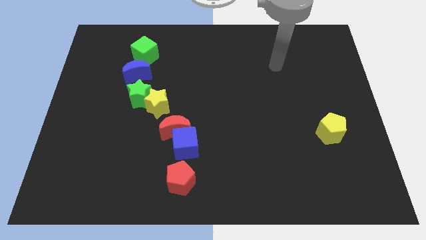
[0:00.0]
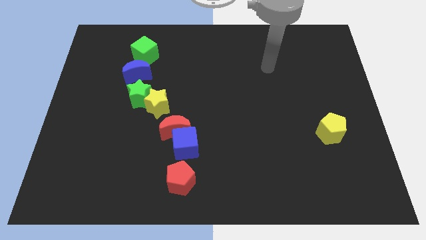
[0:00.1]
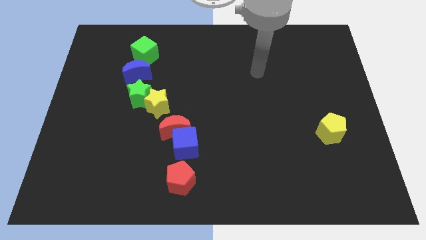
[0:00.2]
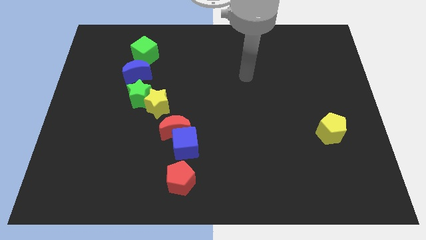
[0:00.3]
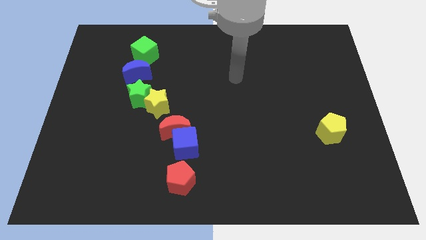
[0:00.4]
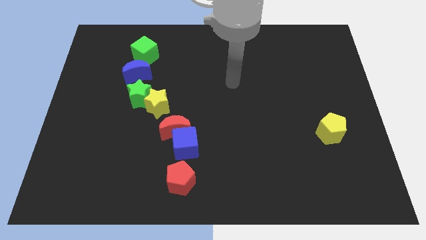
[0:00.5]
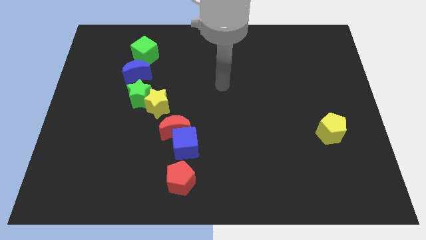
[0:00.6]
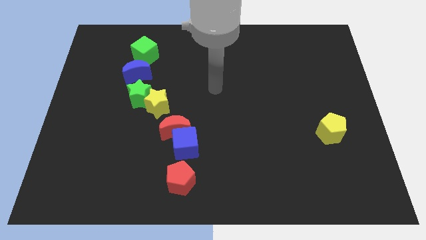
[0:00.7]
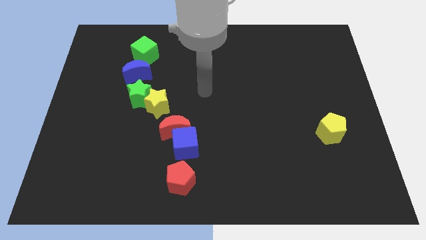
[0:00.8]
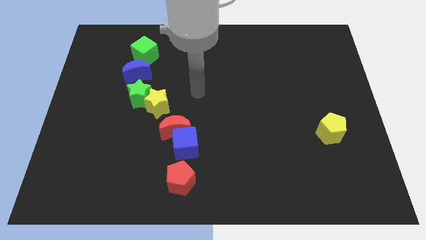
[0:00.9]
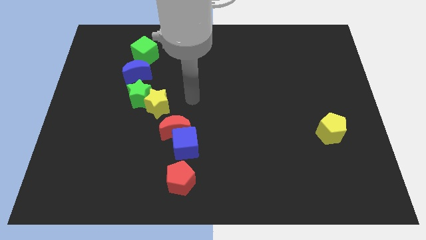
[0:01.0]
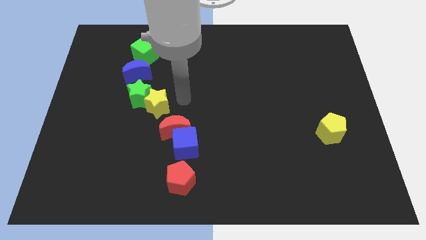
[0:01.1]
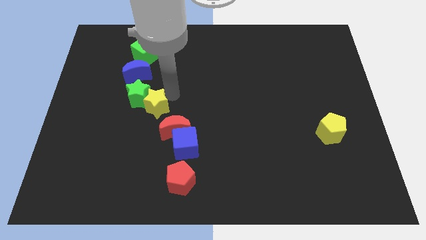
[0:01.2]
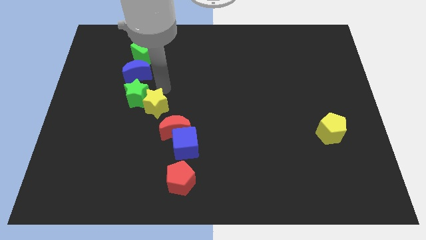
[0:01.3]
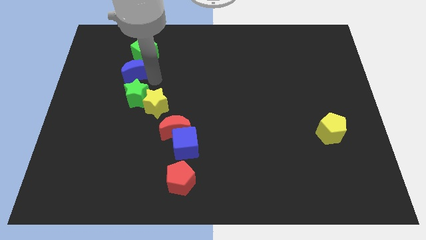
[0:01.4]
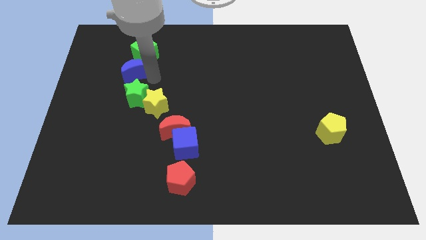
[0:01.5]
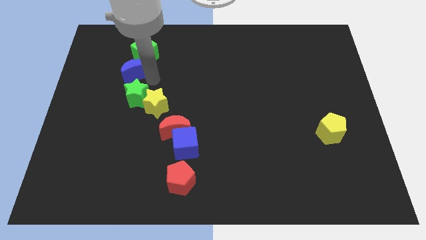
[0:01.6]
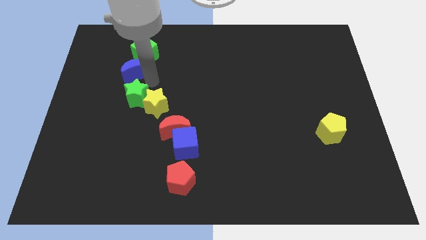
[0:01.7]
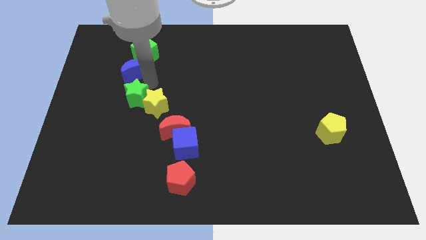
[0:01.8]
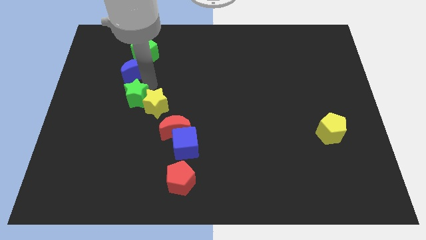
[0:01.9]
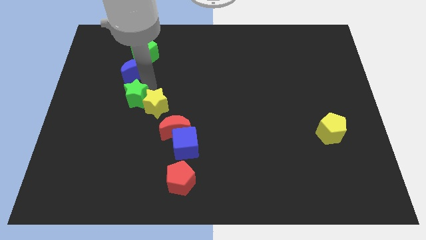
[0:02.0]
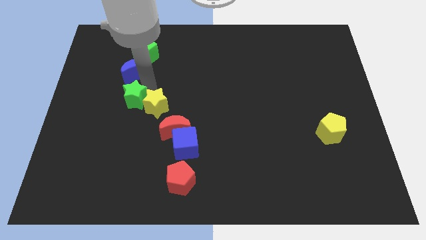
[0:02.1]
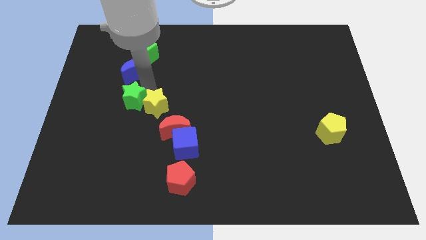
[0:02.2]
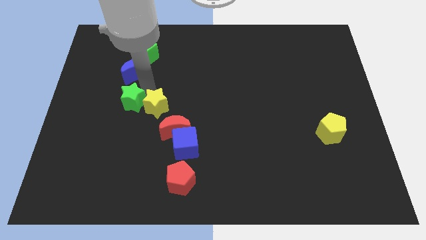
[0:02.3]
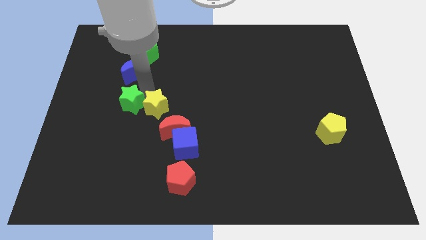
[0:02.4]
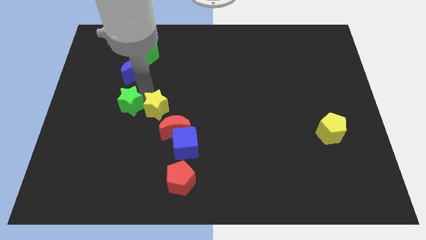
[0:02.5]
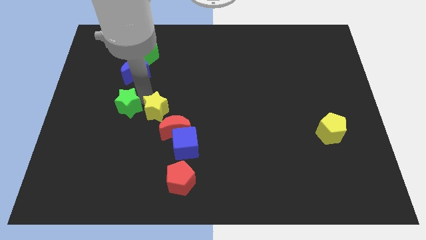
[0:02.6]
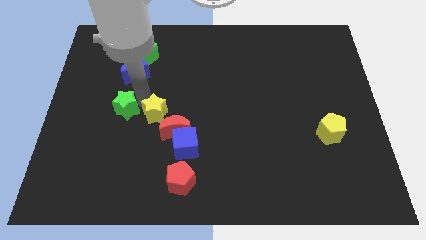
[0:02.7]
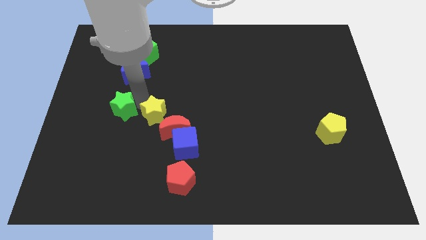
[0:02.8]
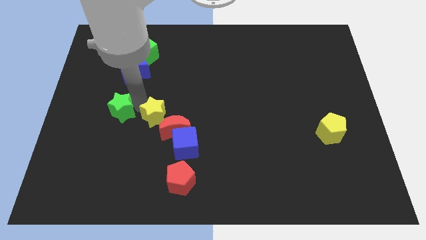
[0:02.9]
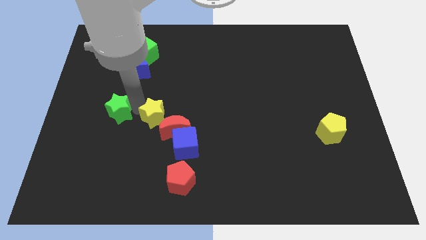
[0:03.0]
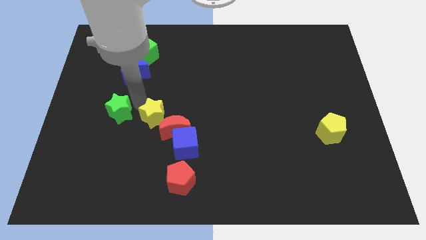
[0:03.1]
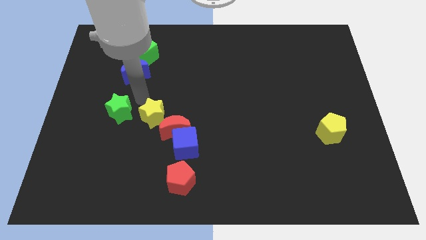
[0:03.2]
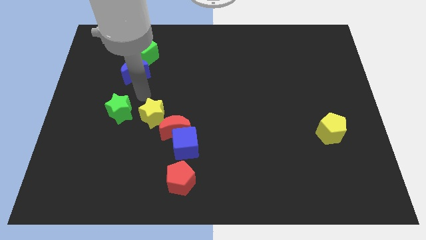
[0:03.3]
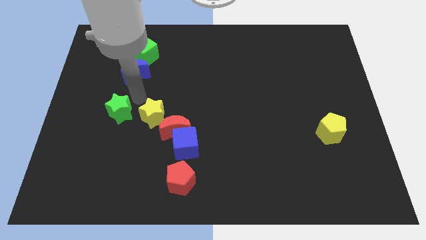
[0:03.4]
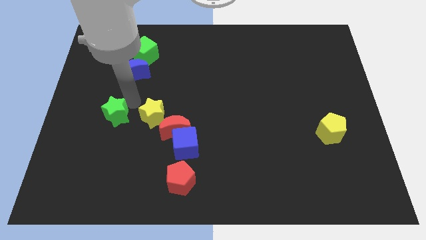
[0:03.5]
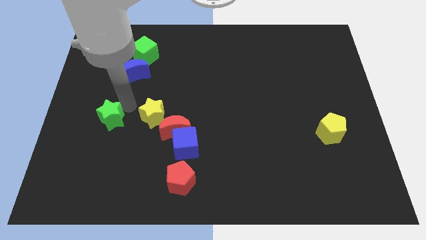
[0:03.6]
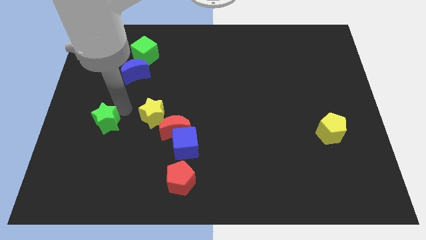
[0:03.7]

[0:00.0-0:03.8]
pull the green star apart from the yellow star and blue moon

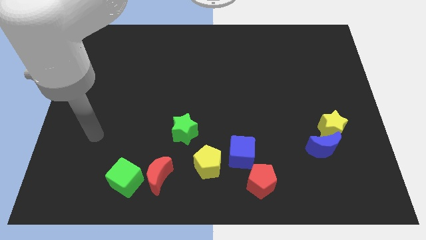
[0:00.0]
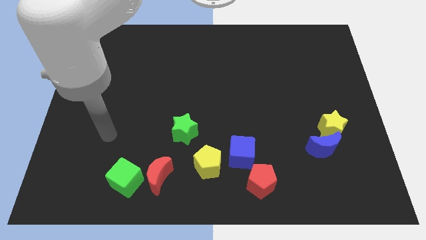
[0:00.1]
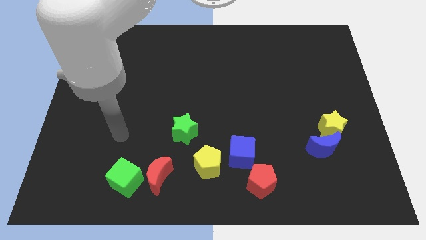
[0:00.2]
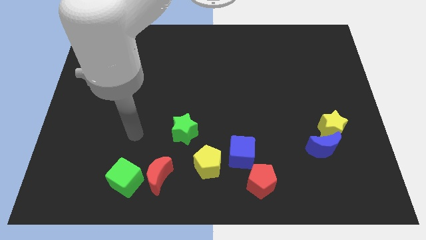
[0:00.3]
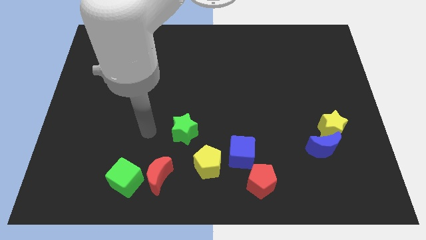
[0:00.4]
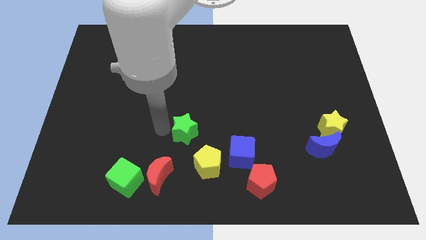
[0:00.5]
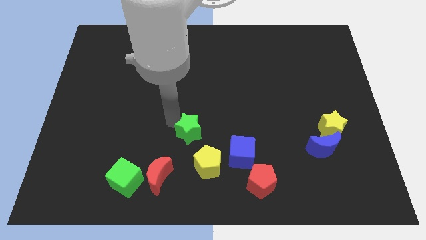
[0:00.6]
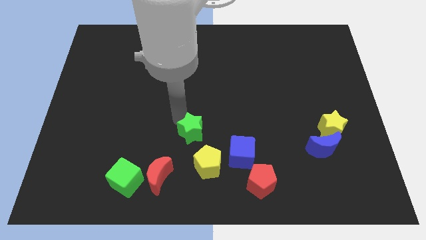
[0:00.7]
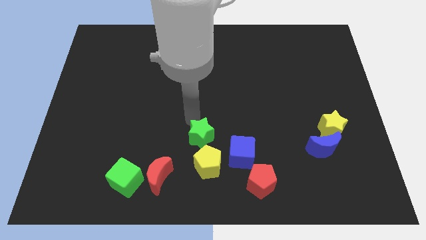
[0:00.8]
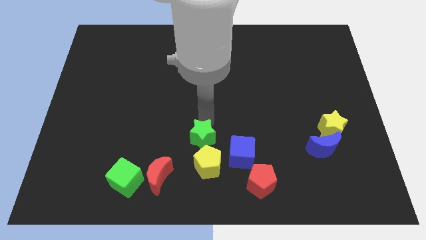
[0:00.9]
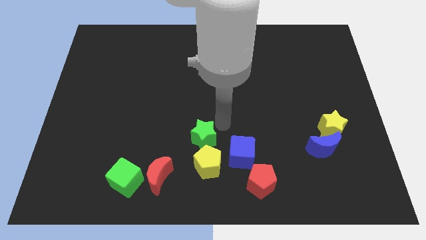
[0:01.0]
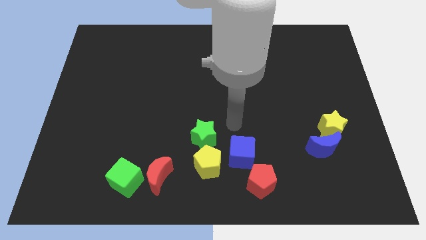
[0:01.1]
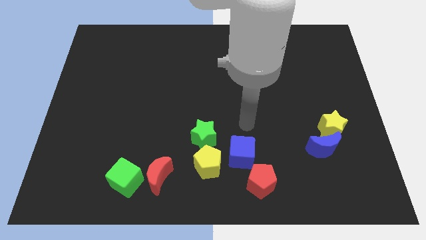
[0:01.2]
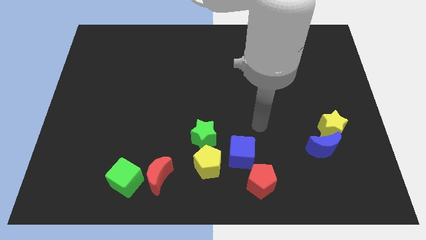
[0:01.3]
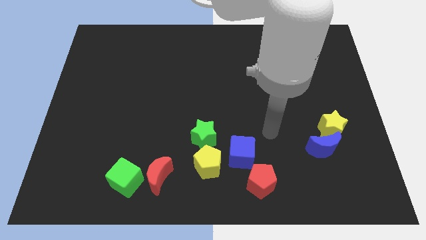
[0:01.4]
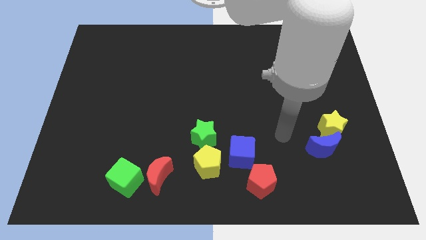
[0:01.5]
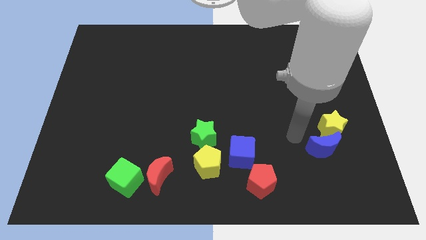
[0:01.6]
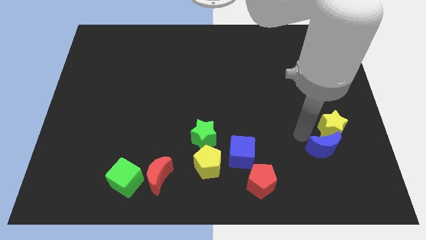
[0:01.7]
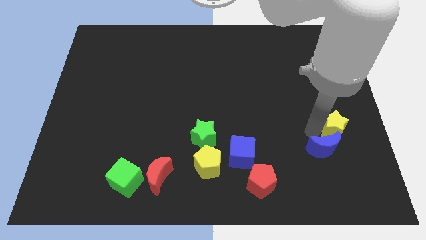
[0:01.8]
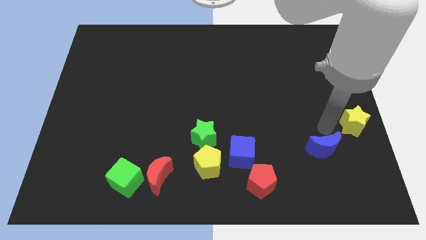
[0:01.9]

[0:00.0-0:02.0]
separate the blue moon from the yellow star

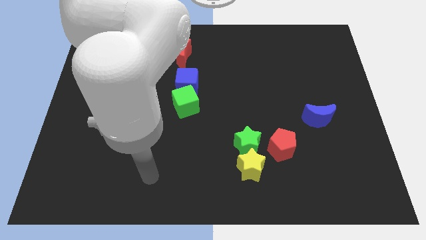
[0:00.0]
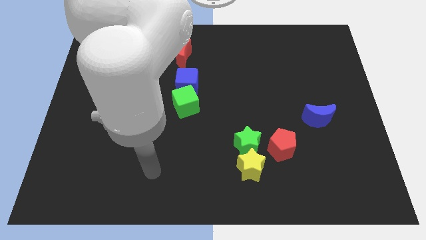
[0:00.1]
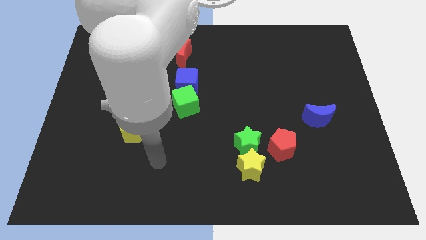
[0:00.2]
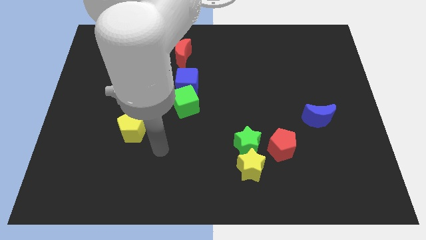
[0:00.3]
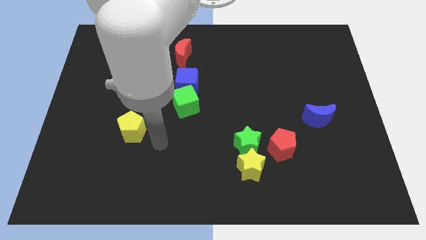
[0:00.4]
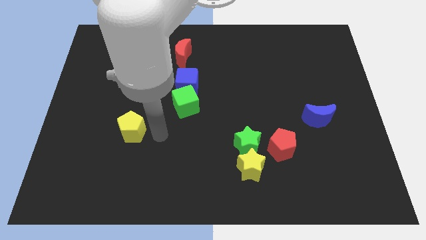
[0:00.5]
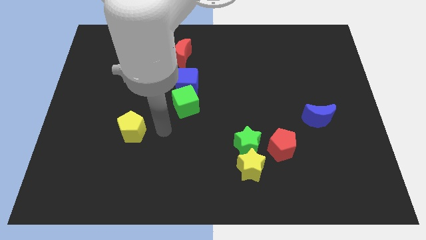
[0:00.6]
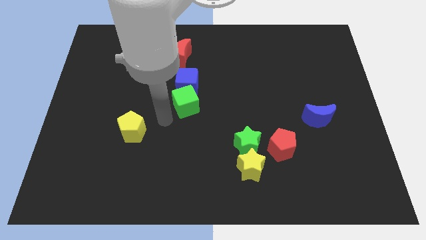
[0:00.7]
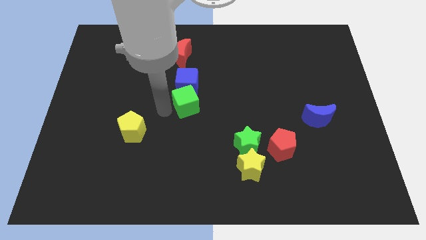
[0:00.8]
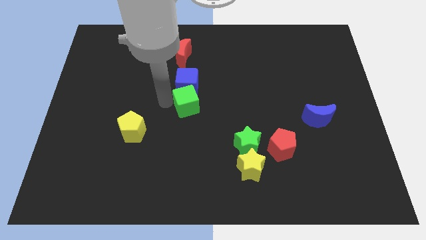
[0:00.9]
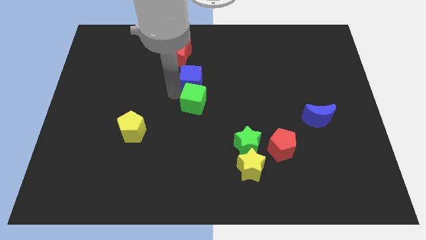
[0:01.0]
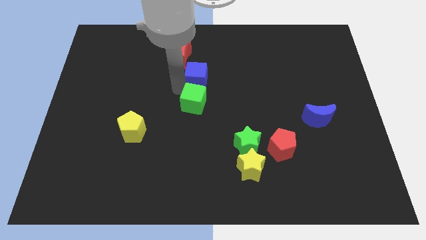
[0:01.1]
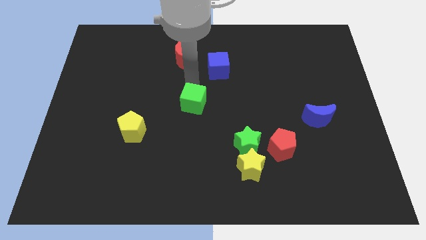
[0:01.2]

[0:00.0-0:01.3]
pull the green cube apart from the blue cube

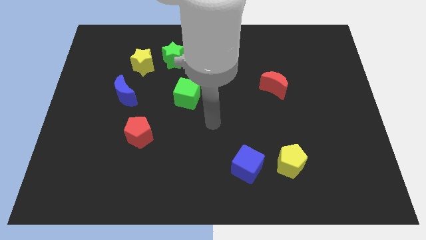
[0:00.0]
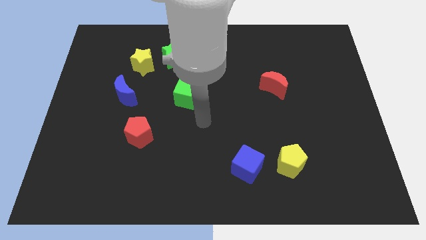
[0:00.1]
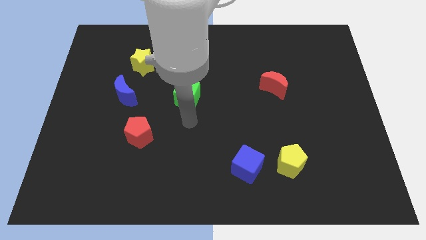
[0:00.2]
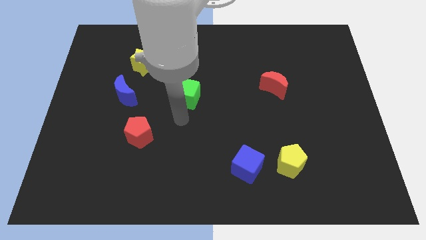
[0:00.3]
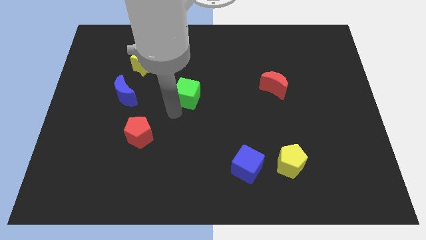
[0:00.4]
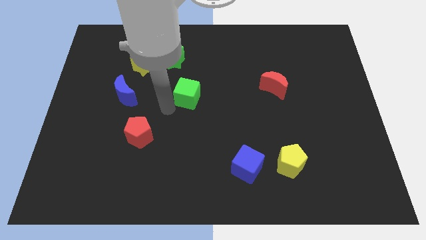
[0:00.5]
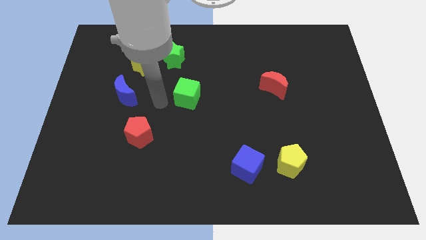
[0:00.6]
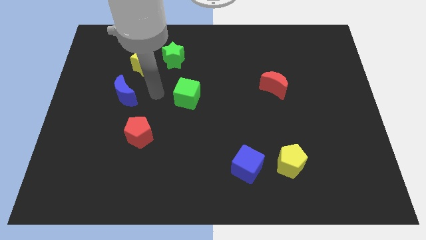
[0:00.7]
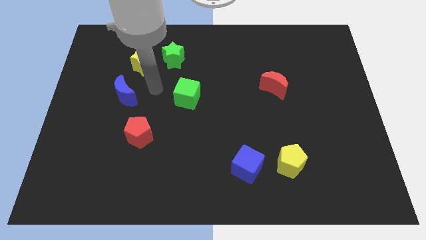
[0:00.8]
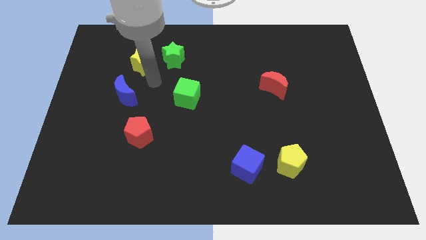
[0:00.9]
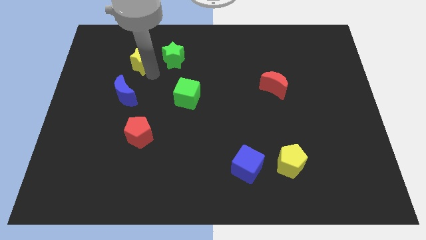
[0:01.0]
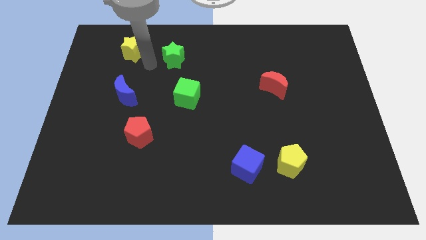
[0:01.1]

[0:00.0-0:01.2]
move the green star away from the yellow star

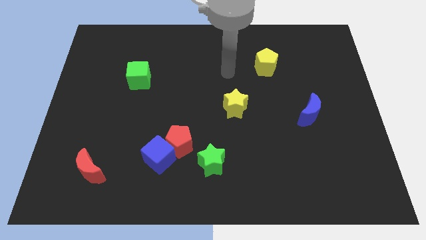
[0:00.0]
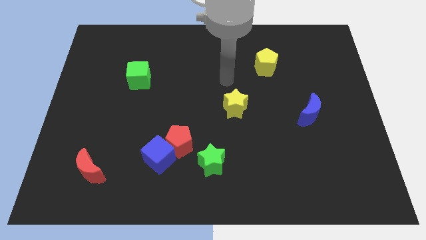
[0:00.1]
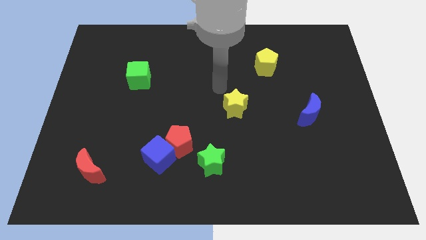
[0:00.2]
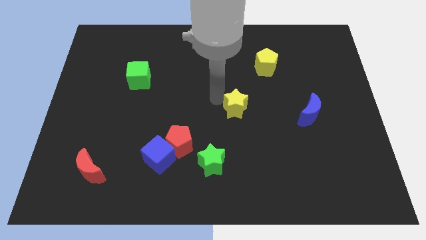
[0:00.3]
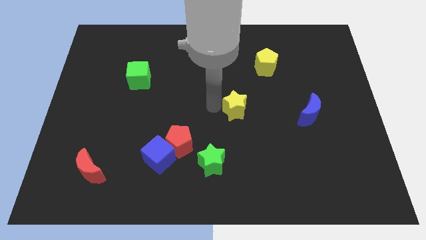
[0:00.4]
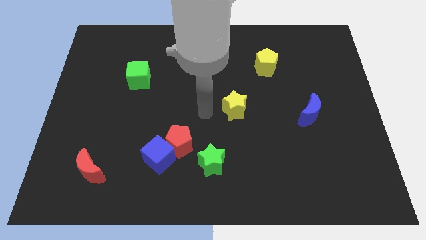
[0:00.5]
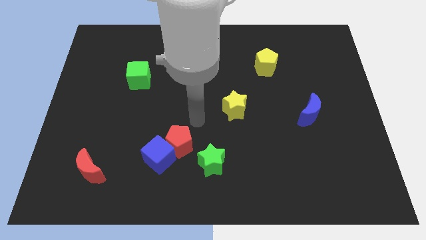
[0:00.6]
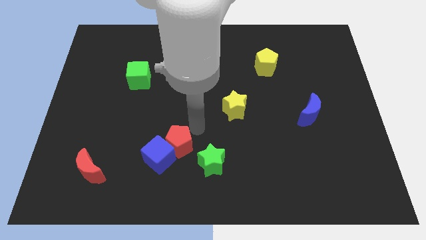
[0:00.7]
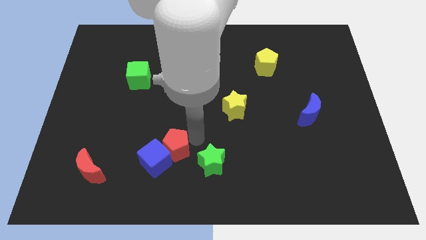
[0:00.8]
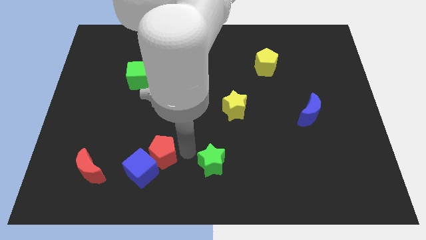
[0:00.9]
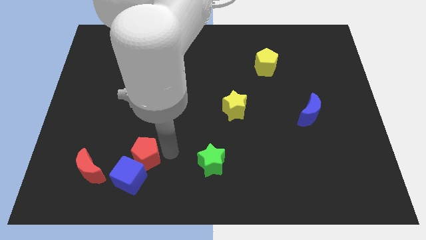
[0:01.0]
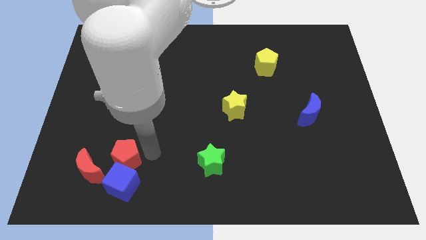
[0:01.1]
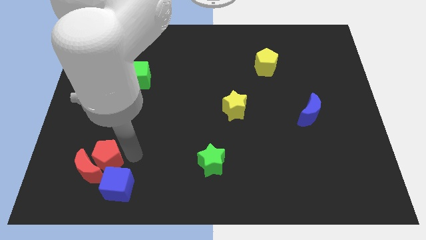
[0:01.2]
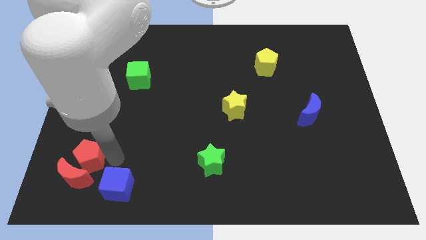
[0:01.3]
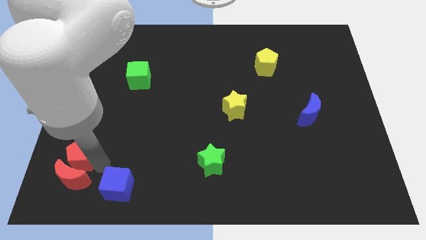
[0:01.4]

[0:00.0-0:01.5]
separate the blue cube from the red pentagon
